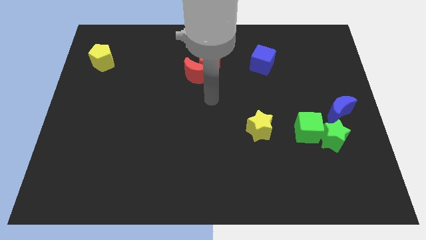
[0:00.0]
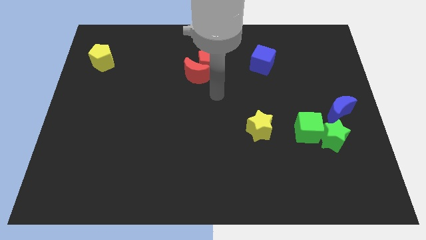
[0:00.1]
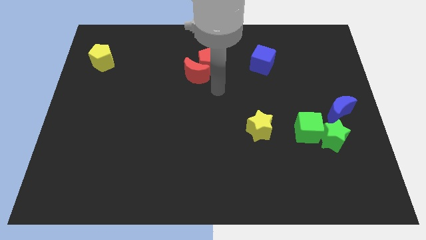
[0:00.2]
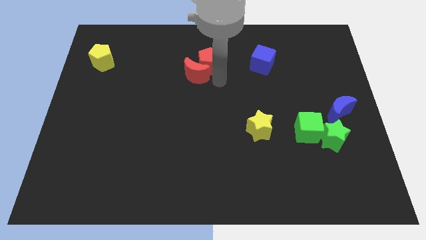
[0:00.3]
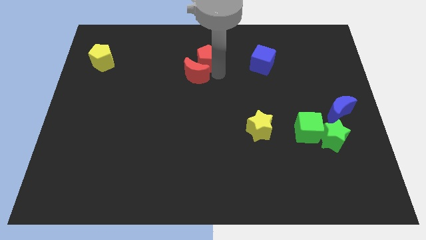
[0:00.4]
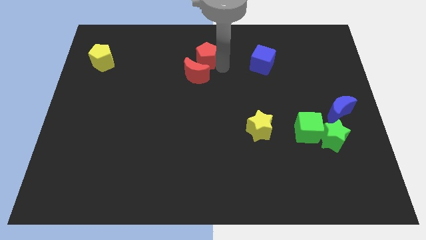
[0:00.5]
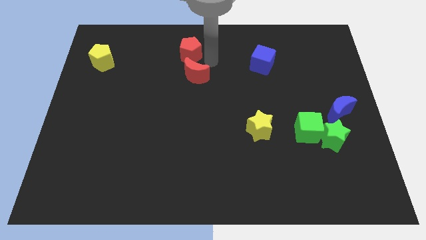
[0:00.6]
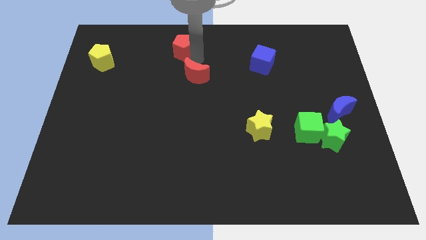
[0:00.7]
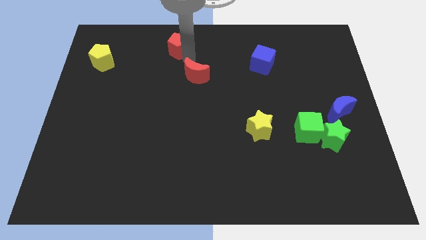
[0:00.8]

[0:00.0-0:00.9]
pull the red moon apart from the red pentagon

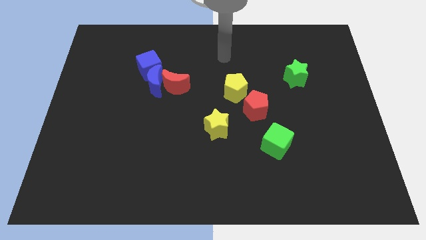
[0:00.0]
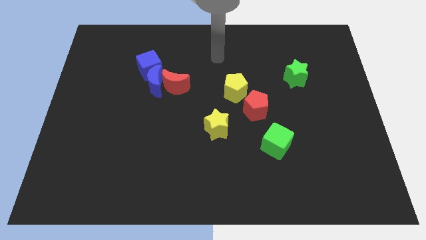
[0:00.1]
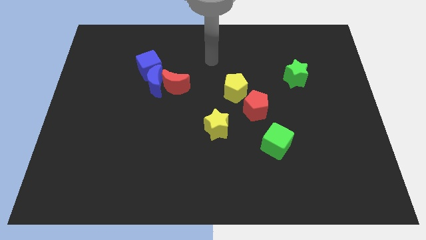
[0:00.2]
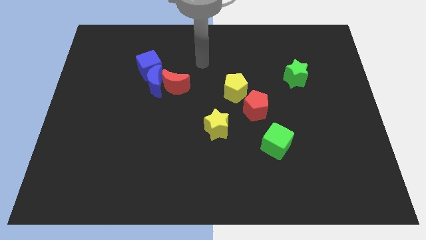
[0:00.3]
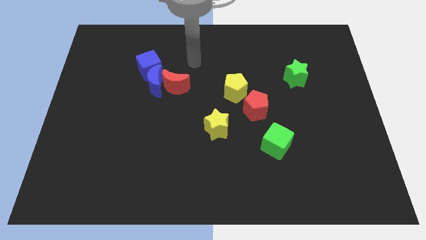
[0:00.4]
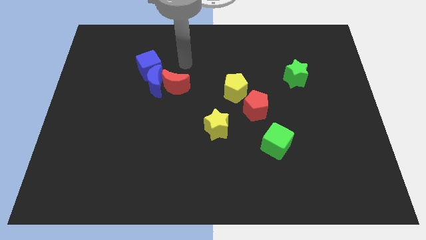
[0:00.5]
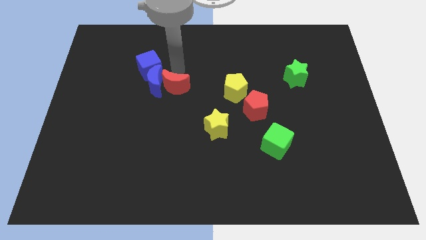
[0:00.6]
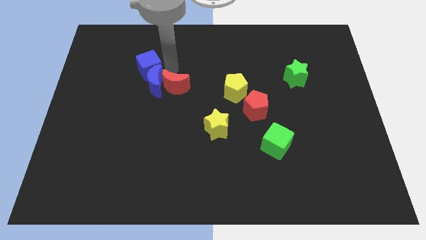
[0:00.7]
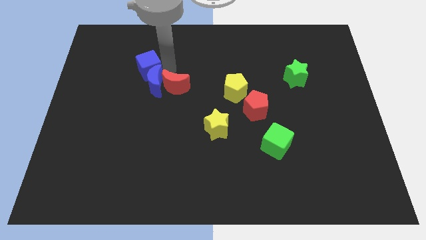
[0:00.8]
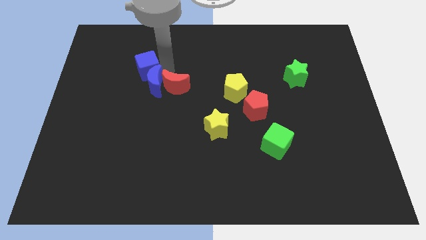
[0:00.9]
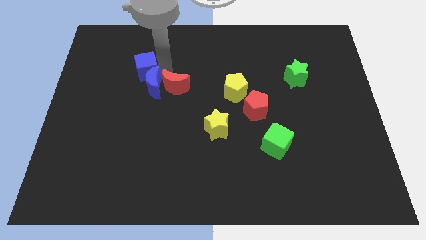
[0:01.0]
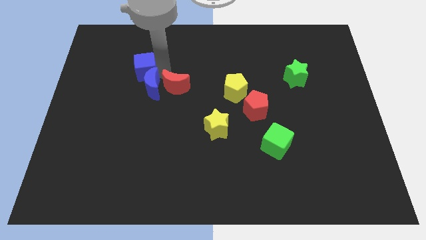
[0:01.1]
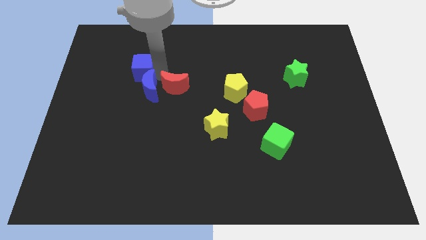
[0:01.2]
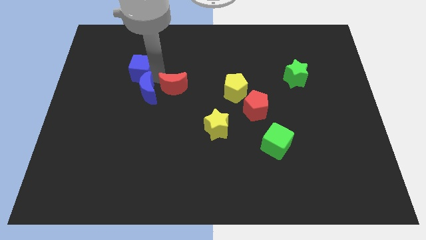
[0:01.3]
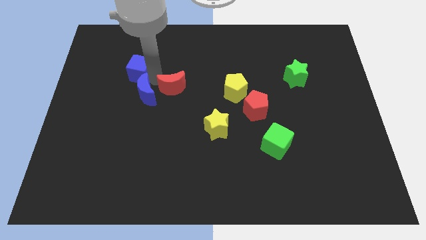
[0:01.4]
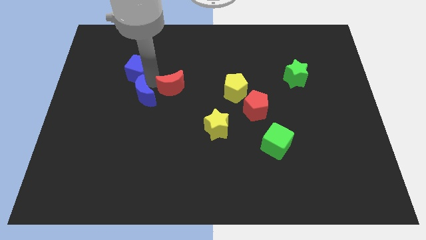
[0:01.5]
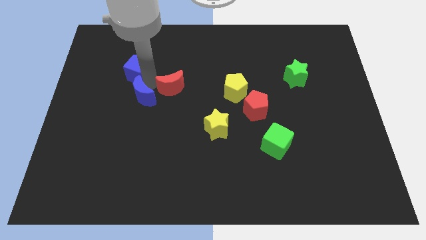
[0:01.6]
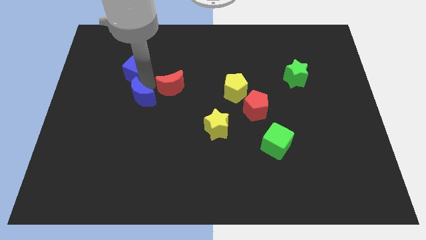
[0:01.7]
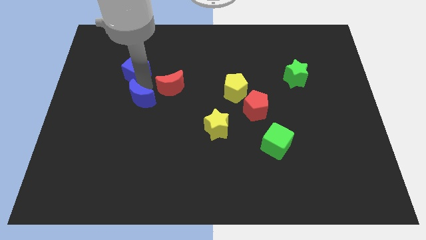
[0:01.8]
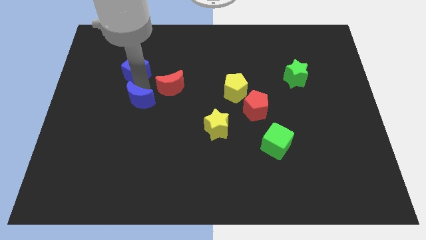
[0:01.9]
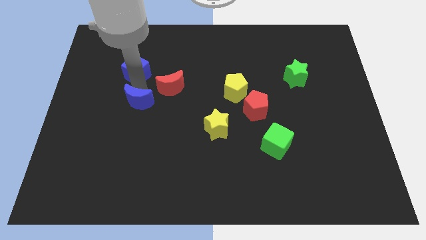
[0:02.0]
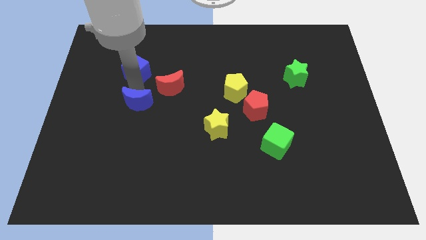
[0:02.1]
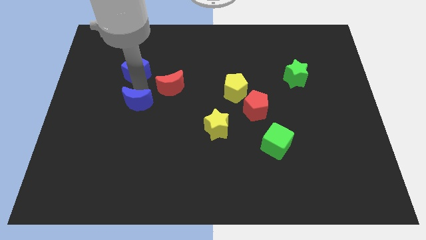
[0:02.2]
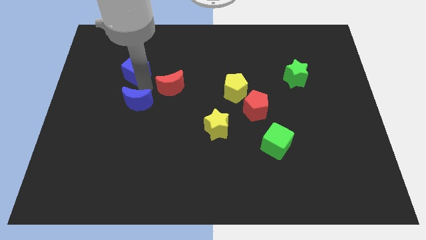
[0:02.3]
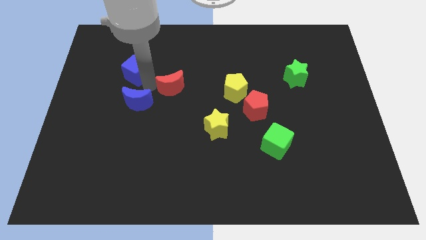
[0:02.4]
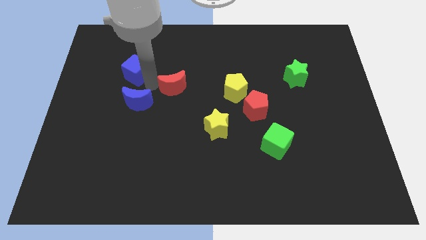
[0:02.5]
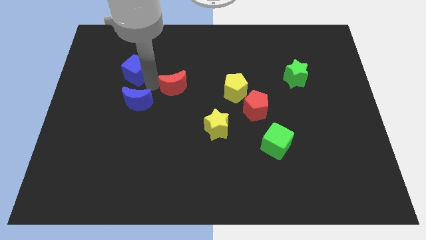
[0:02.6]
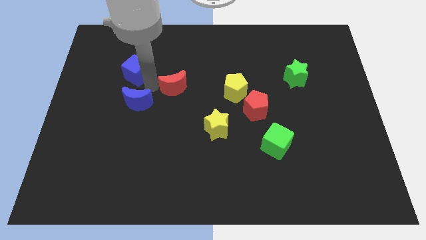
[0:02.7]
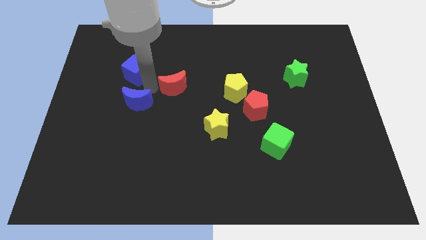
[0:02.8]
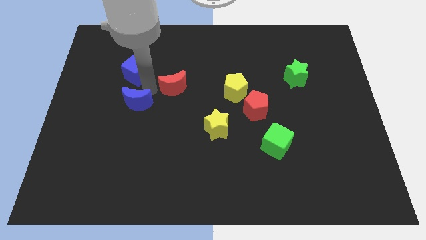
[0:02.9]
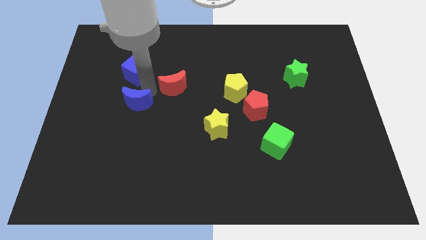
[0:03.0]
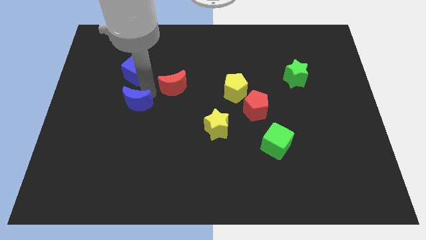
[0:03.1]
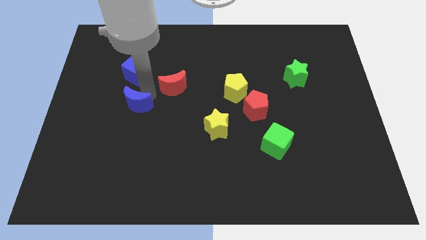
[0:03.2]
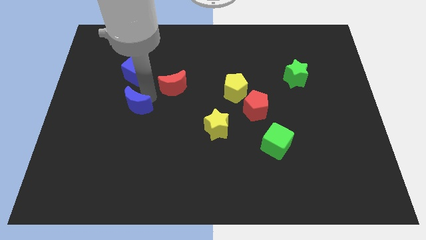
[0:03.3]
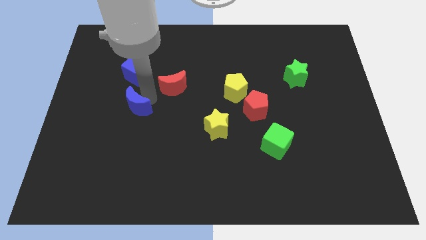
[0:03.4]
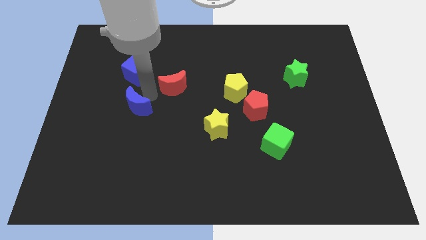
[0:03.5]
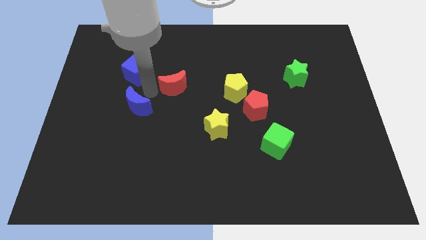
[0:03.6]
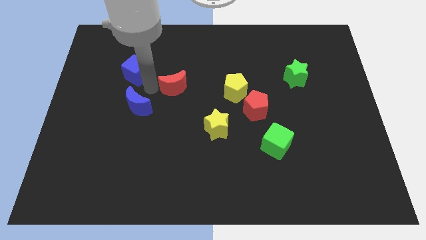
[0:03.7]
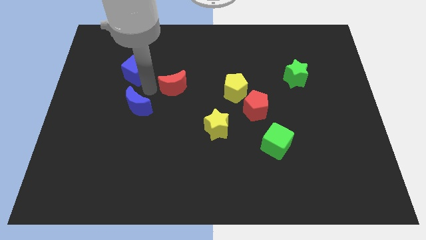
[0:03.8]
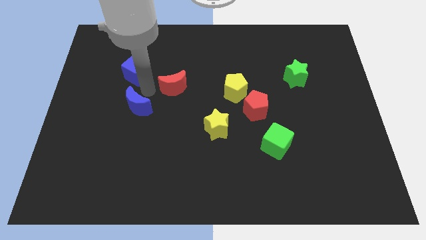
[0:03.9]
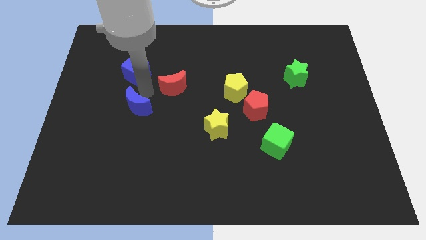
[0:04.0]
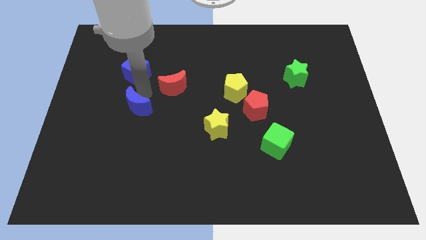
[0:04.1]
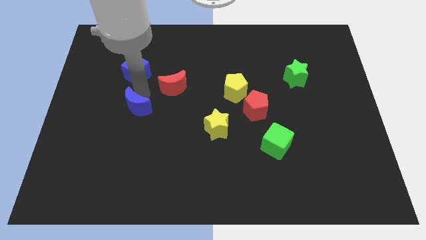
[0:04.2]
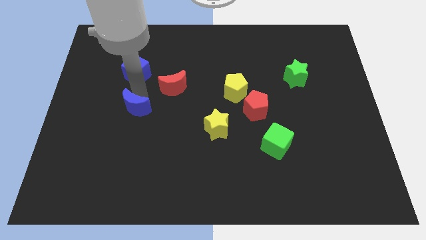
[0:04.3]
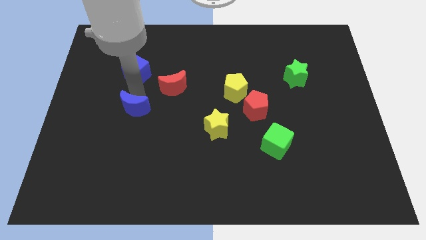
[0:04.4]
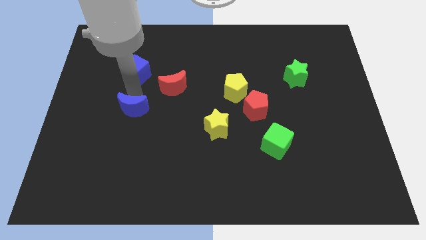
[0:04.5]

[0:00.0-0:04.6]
separate the blue moon from the red moon and blue cube

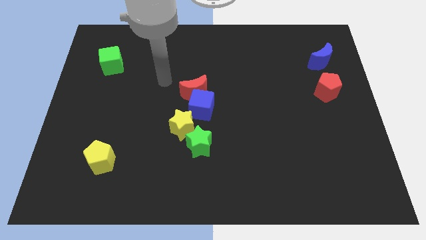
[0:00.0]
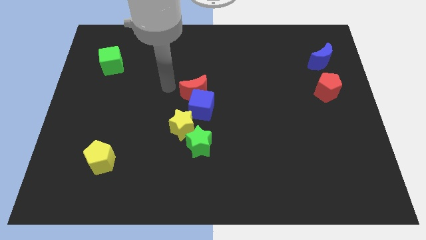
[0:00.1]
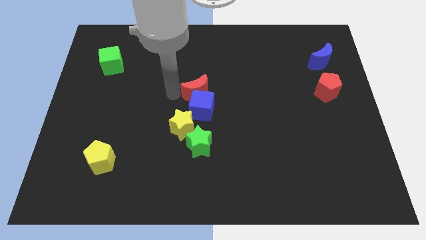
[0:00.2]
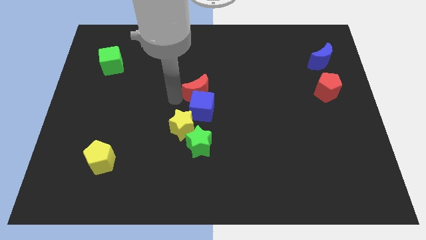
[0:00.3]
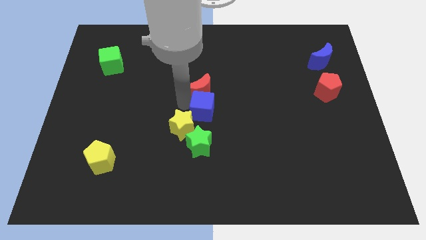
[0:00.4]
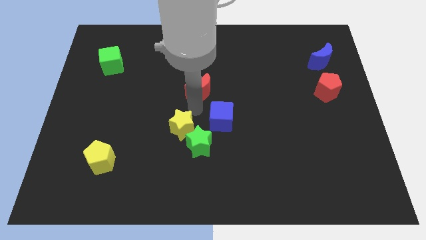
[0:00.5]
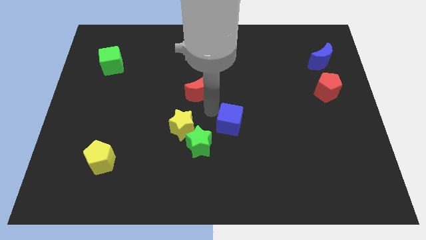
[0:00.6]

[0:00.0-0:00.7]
separate the red moon from the blue cube

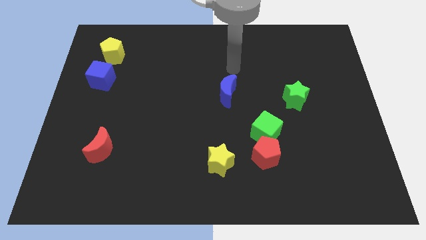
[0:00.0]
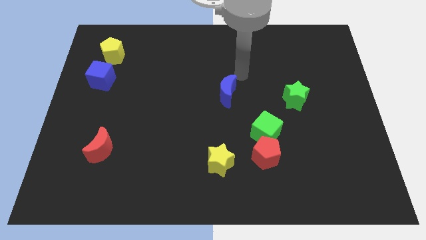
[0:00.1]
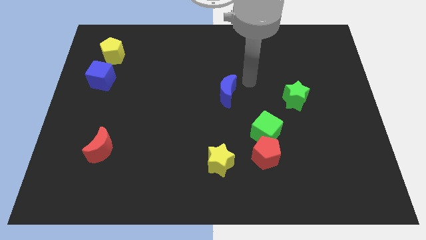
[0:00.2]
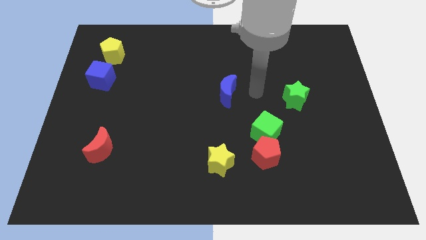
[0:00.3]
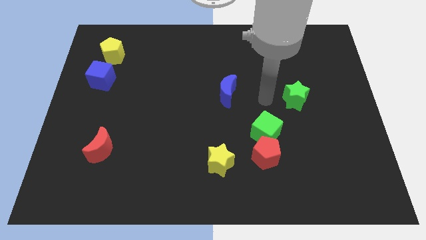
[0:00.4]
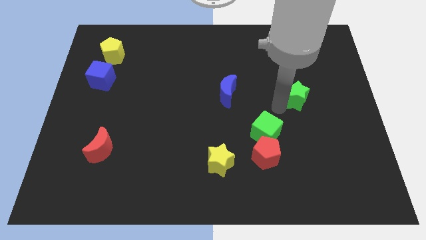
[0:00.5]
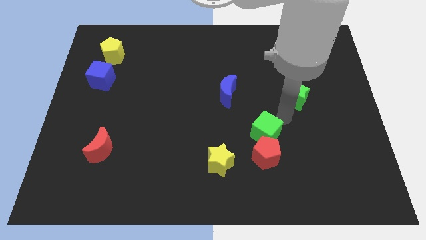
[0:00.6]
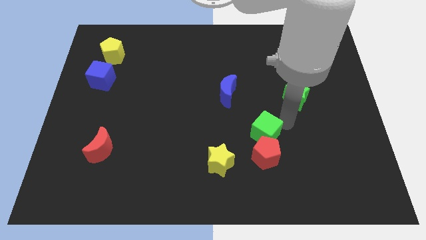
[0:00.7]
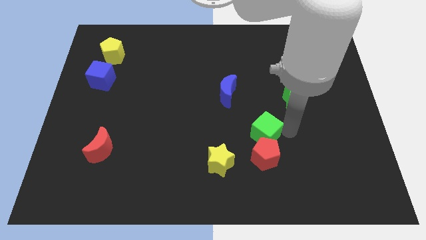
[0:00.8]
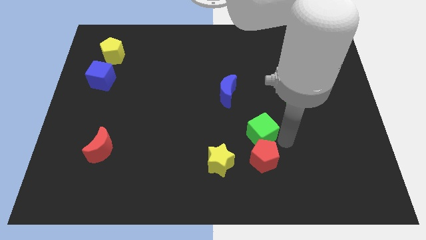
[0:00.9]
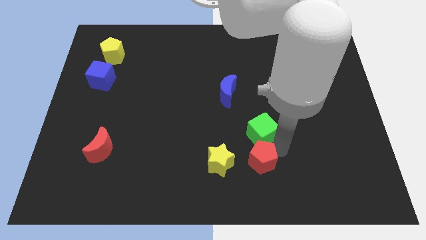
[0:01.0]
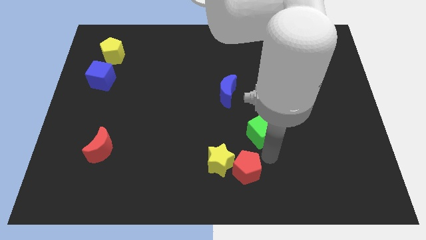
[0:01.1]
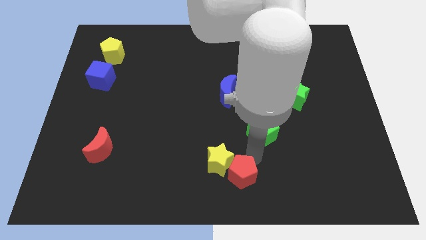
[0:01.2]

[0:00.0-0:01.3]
pull the green cube apart from the red pentagon

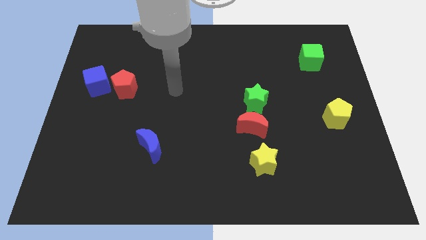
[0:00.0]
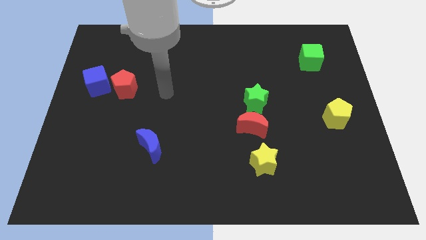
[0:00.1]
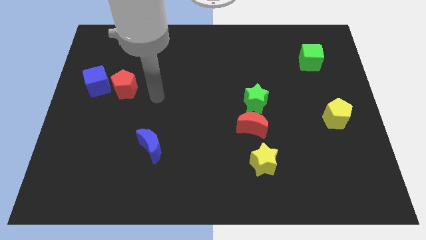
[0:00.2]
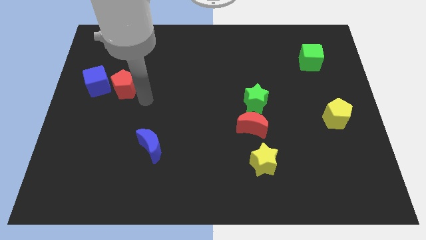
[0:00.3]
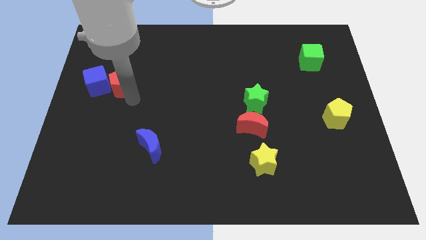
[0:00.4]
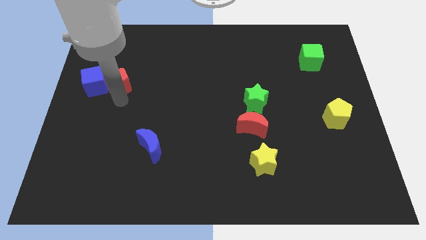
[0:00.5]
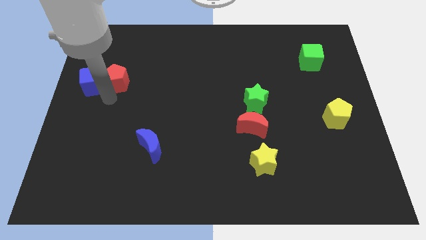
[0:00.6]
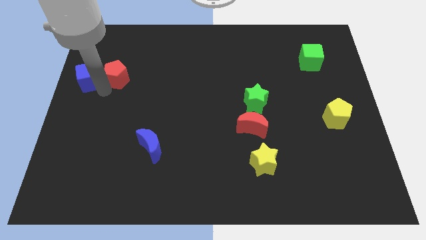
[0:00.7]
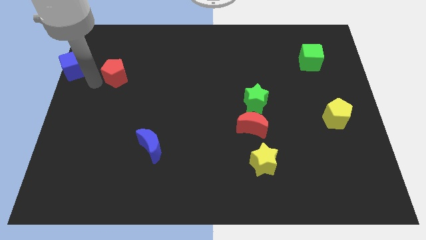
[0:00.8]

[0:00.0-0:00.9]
separate the red pentagon from the blue cube

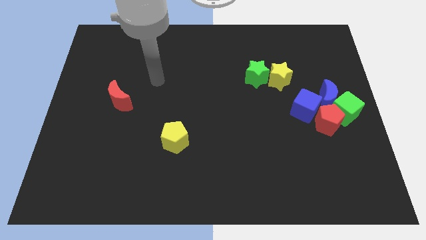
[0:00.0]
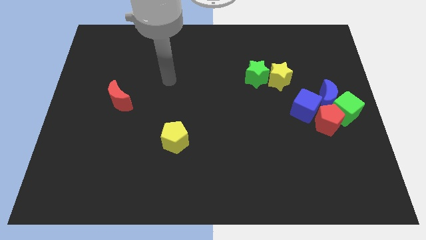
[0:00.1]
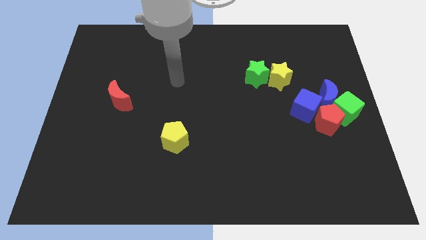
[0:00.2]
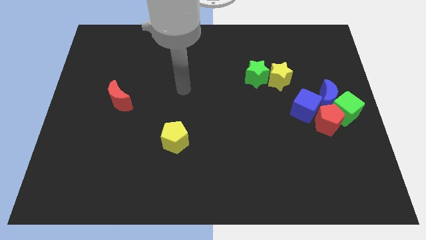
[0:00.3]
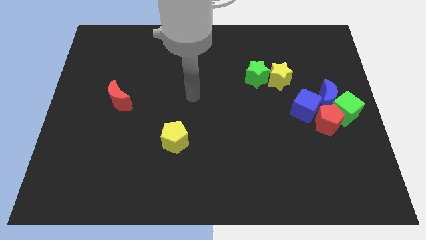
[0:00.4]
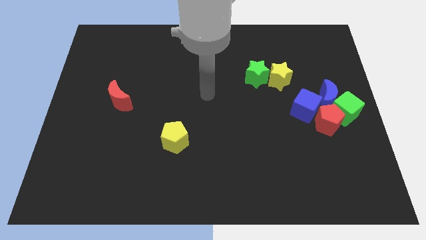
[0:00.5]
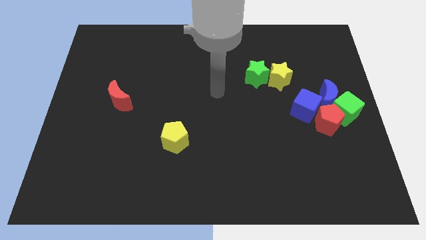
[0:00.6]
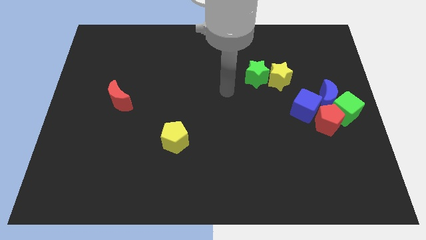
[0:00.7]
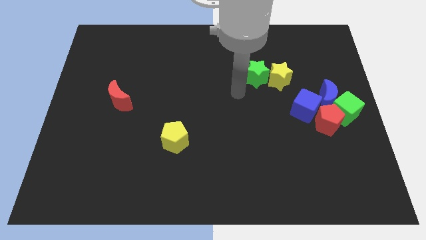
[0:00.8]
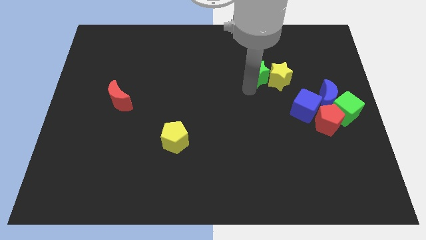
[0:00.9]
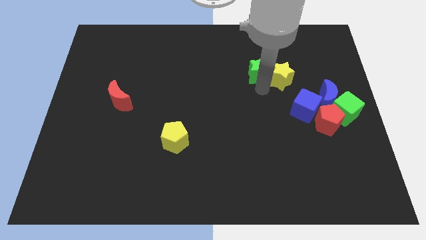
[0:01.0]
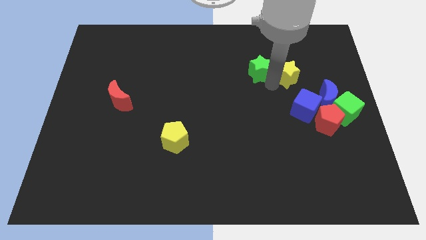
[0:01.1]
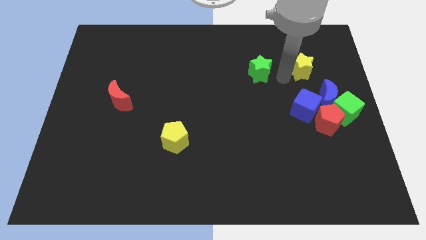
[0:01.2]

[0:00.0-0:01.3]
separate the green star from the yellow star
